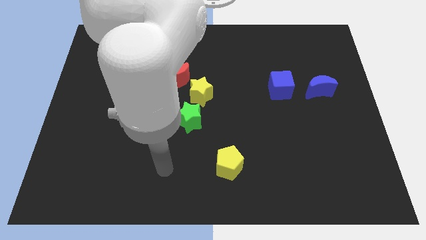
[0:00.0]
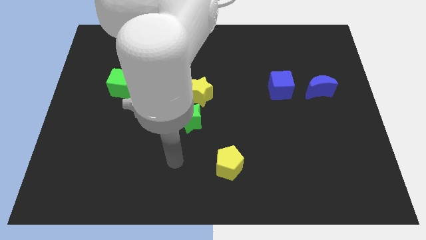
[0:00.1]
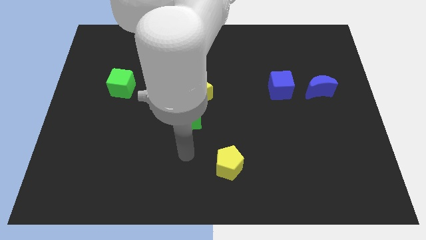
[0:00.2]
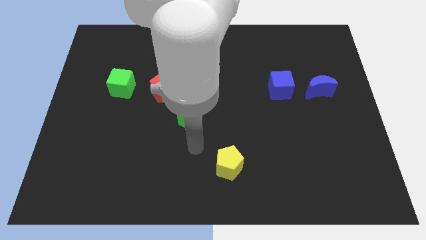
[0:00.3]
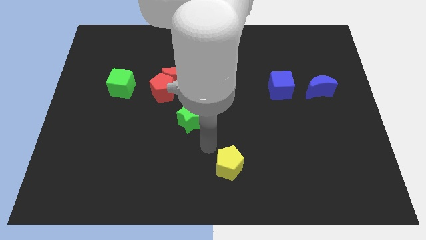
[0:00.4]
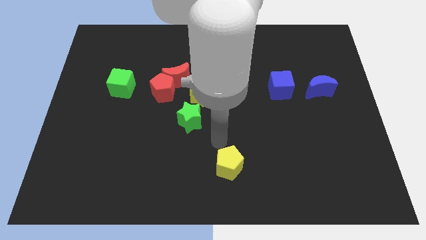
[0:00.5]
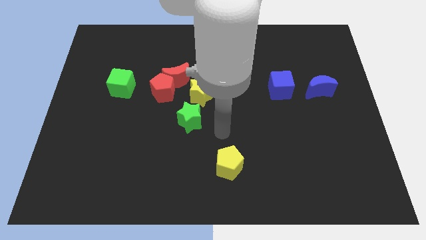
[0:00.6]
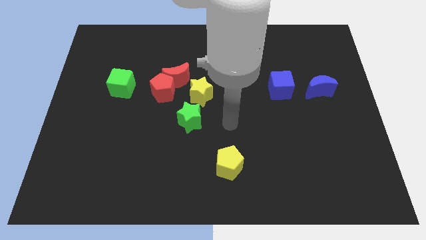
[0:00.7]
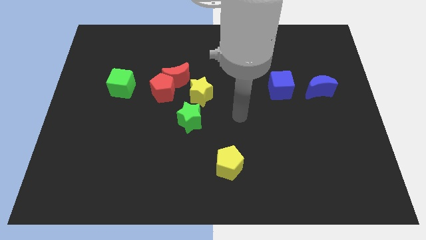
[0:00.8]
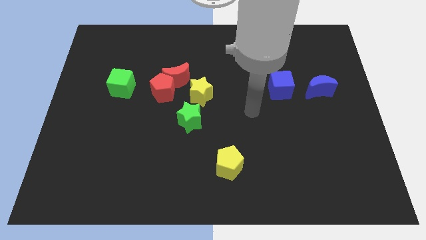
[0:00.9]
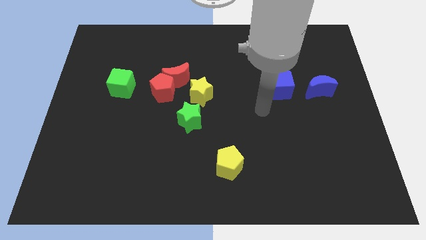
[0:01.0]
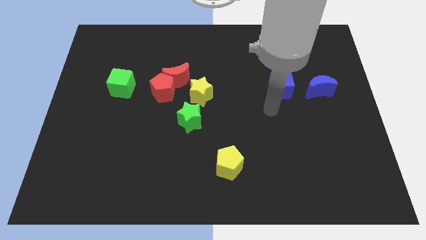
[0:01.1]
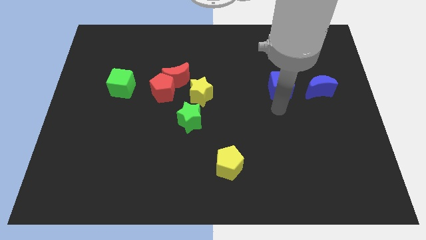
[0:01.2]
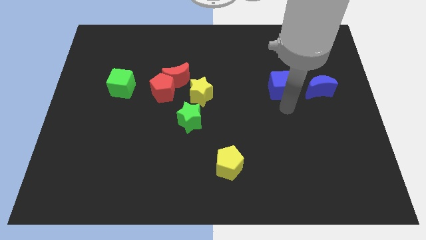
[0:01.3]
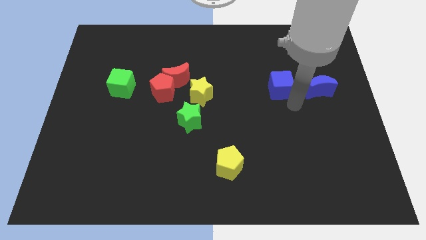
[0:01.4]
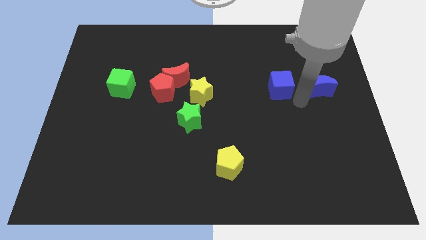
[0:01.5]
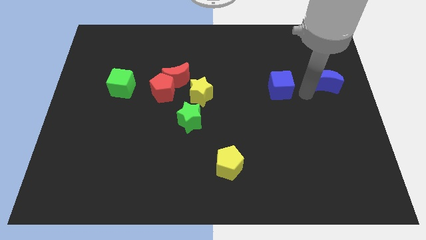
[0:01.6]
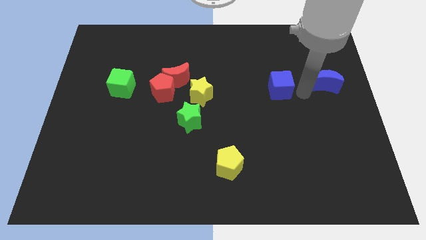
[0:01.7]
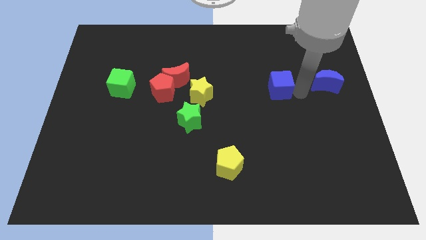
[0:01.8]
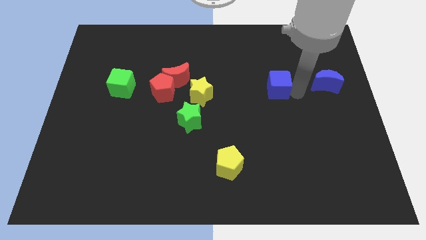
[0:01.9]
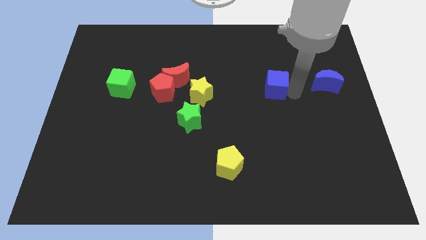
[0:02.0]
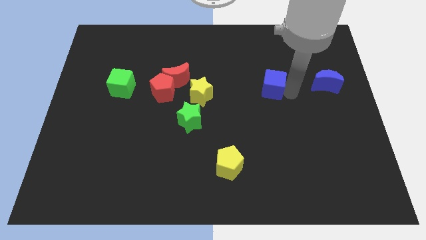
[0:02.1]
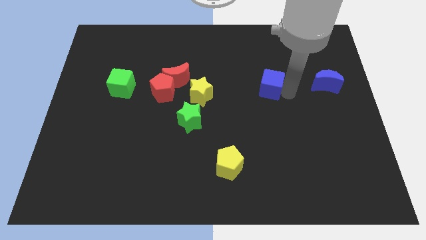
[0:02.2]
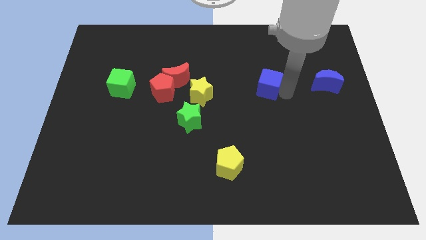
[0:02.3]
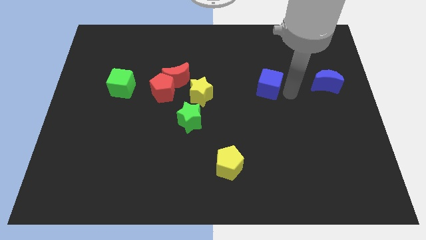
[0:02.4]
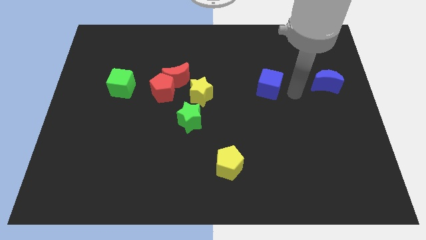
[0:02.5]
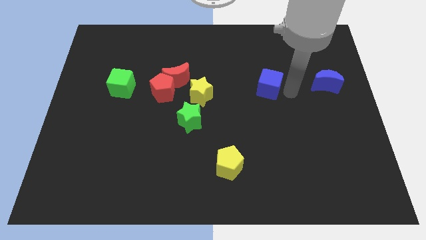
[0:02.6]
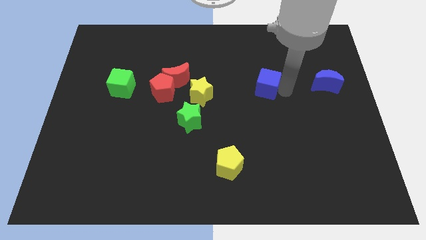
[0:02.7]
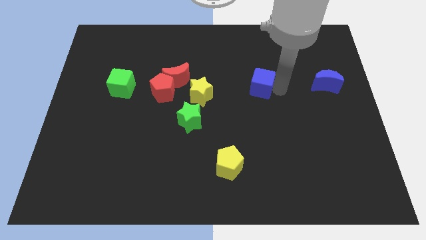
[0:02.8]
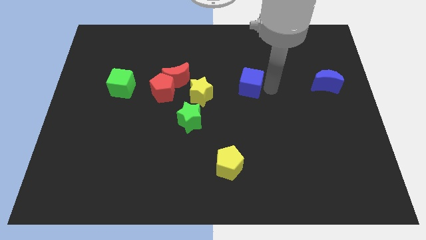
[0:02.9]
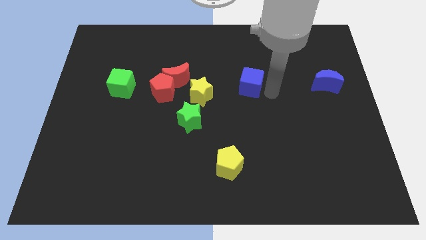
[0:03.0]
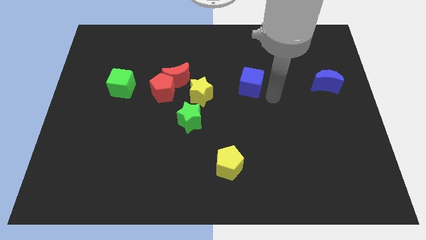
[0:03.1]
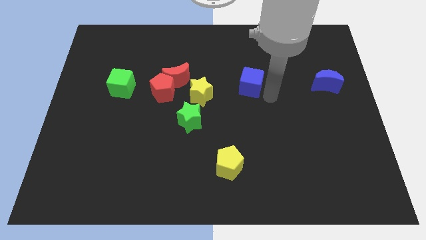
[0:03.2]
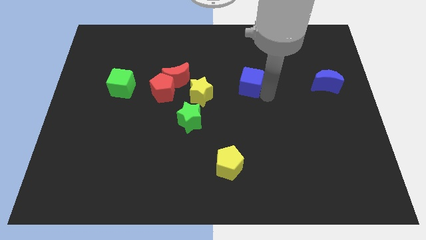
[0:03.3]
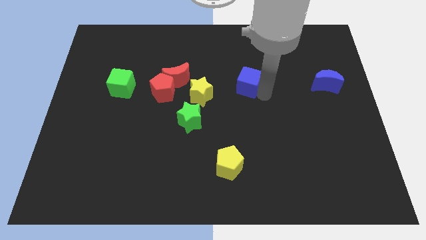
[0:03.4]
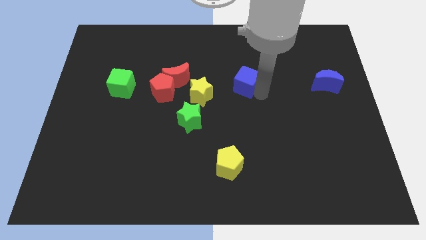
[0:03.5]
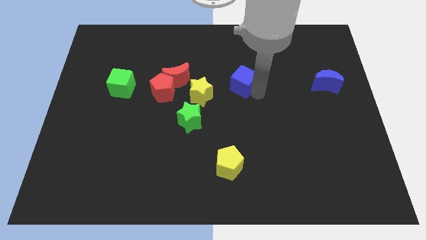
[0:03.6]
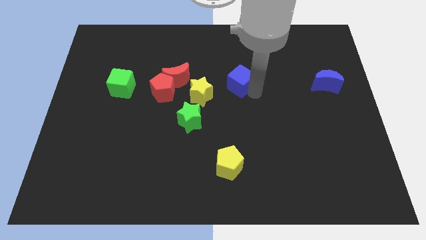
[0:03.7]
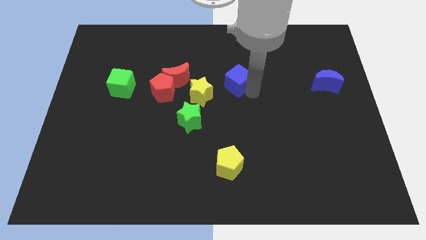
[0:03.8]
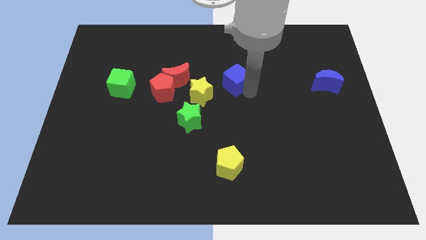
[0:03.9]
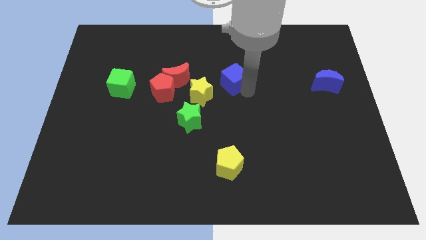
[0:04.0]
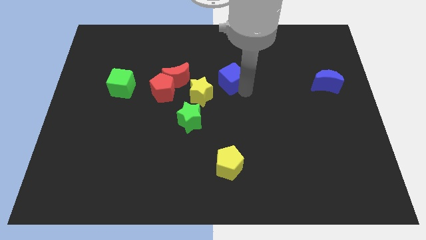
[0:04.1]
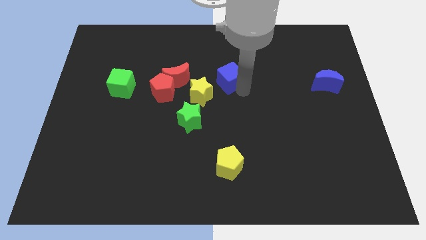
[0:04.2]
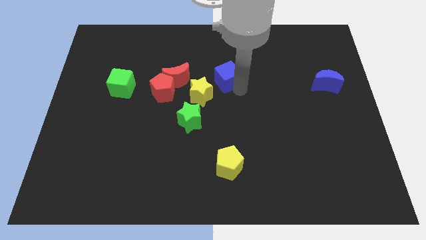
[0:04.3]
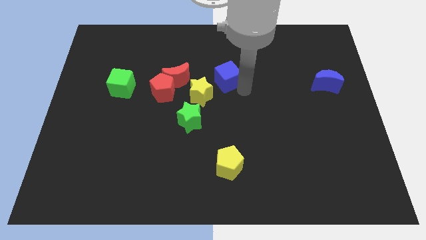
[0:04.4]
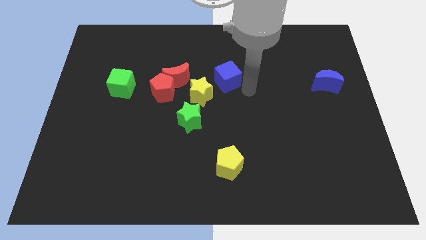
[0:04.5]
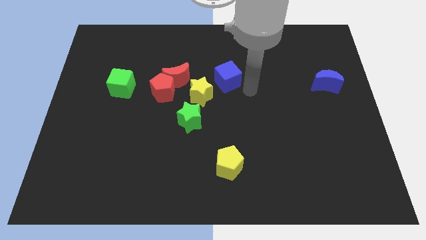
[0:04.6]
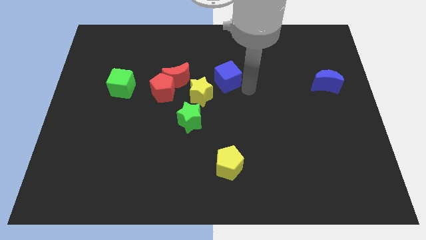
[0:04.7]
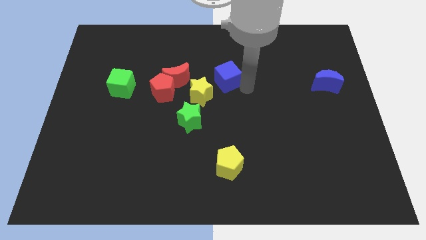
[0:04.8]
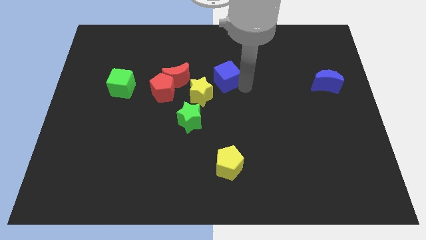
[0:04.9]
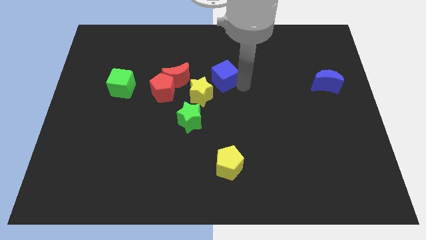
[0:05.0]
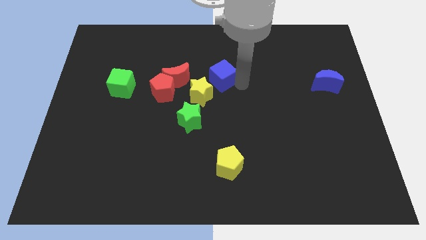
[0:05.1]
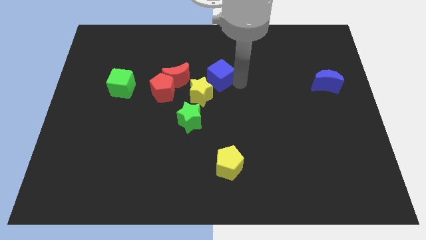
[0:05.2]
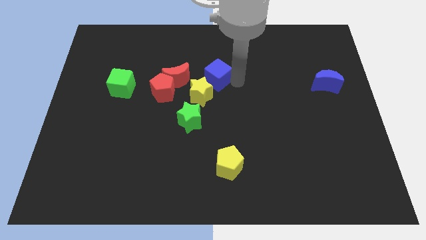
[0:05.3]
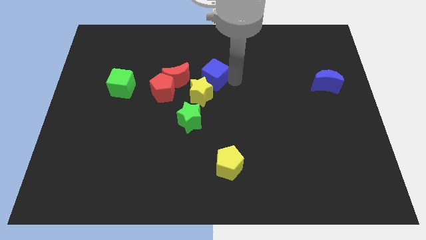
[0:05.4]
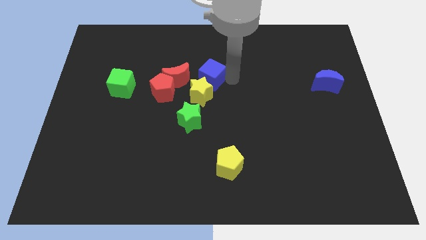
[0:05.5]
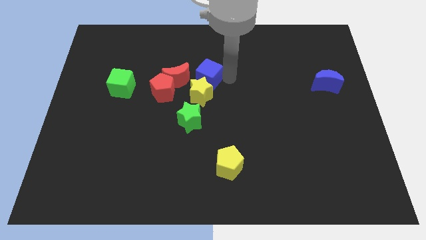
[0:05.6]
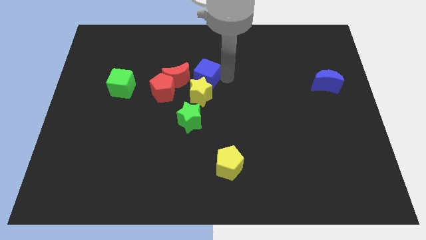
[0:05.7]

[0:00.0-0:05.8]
push the blue cube to the top right side of the red pentagon

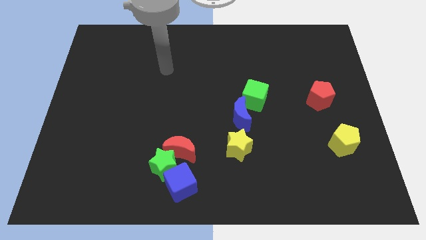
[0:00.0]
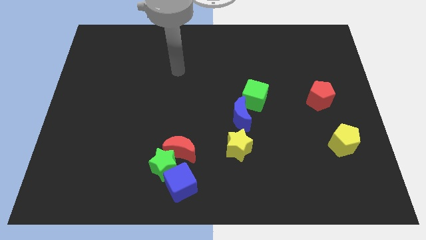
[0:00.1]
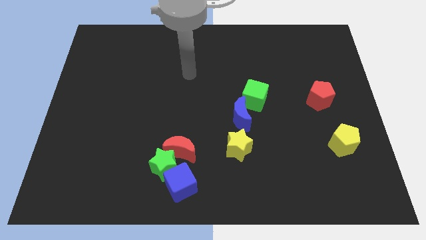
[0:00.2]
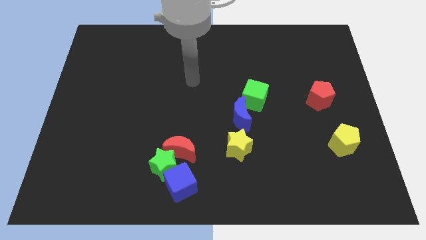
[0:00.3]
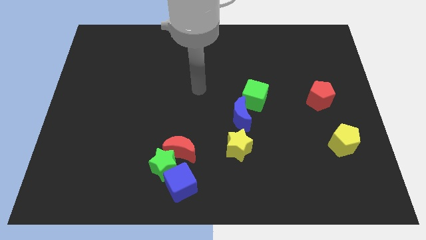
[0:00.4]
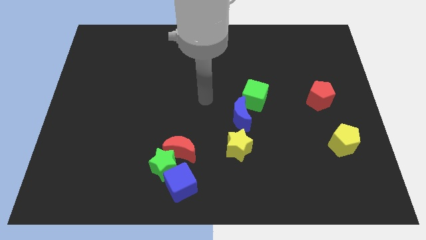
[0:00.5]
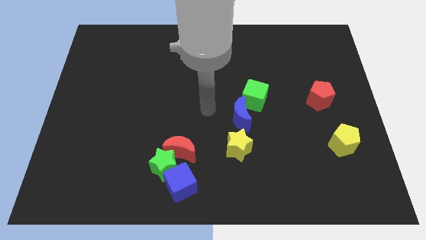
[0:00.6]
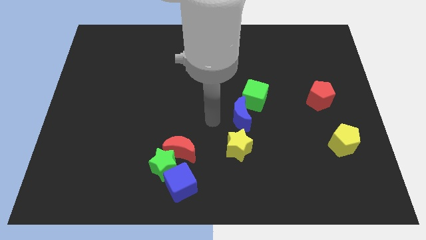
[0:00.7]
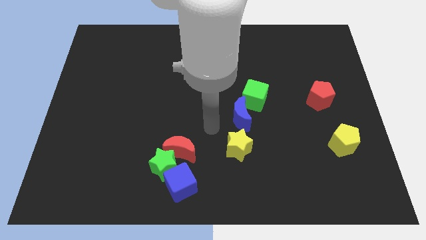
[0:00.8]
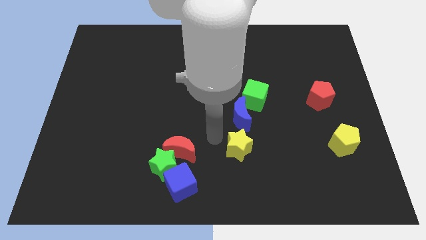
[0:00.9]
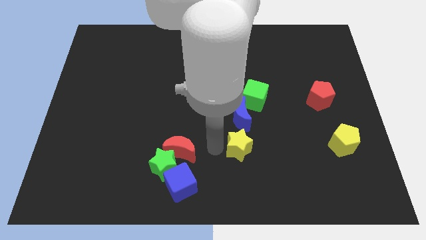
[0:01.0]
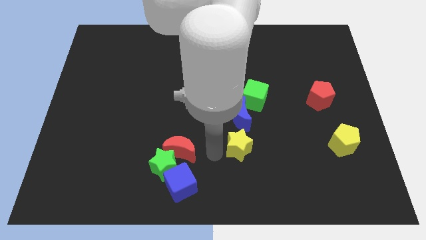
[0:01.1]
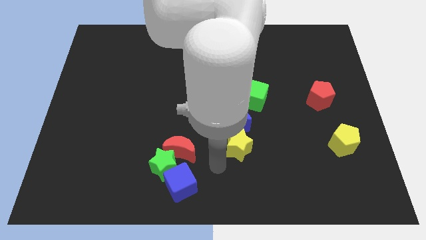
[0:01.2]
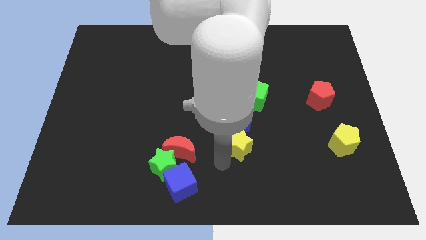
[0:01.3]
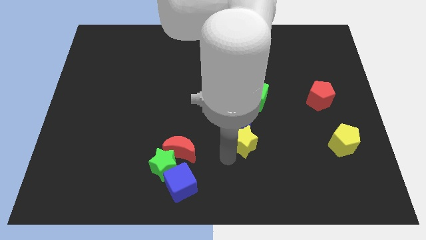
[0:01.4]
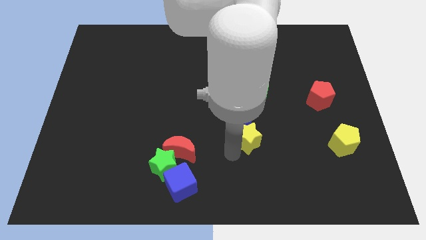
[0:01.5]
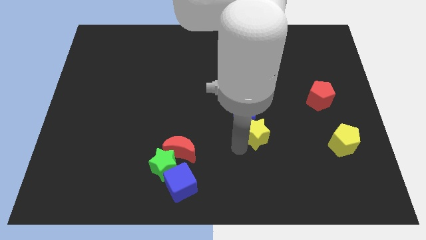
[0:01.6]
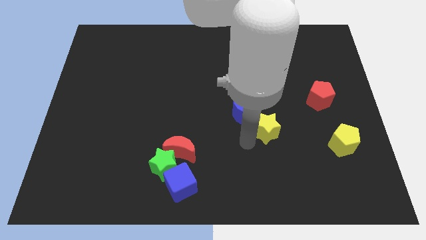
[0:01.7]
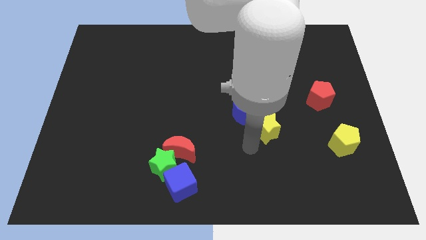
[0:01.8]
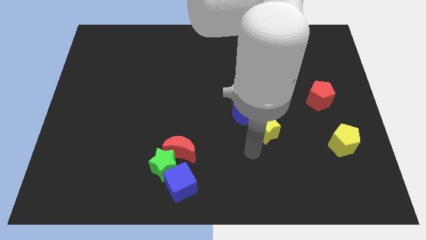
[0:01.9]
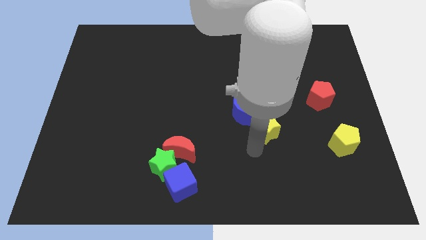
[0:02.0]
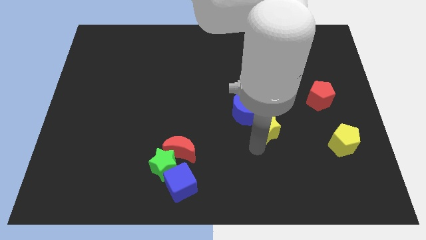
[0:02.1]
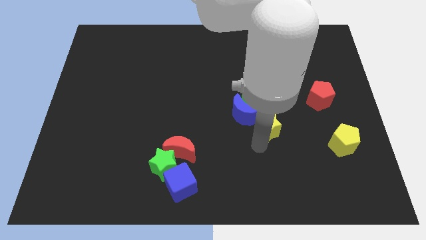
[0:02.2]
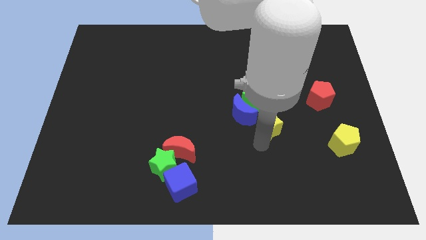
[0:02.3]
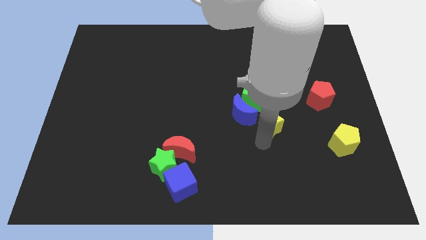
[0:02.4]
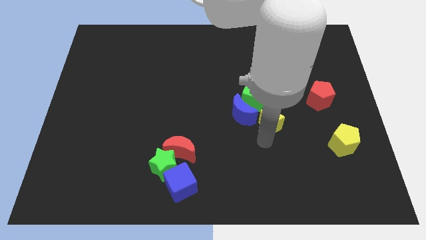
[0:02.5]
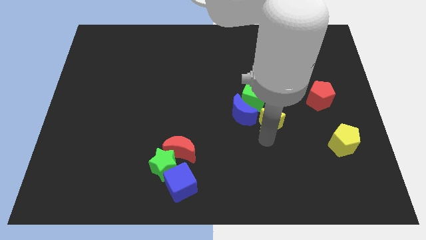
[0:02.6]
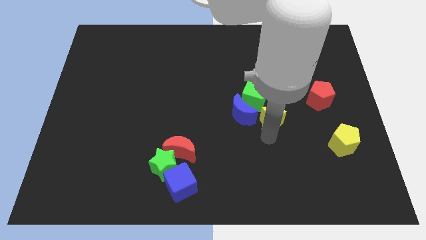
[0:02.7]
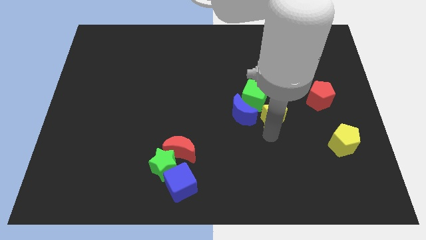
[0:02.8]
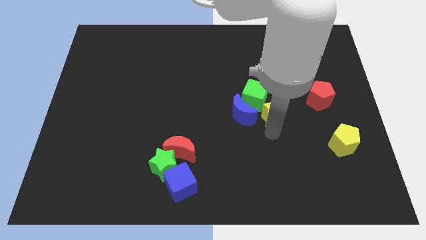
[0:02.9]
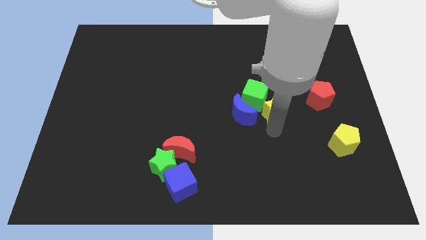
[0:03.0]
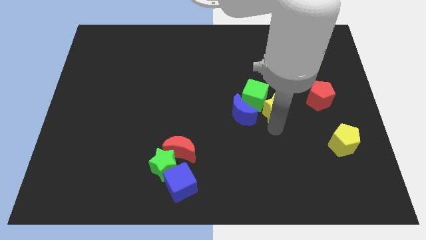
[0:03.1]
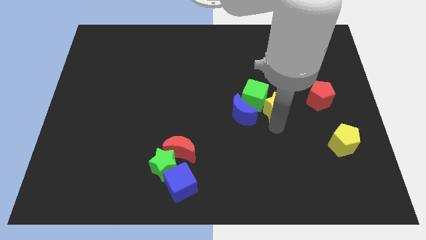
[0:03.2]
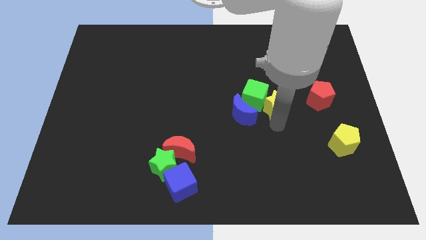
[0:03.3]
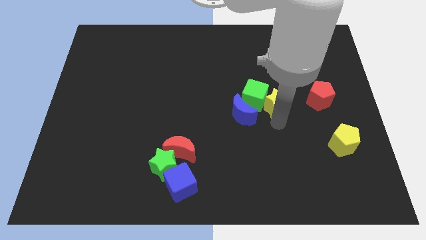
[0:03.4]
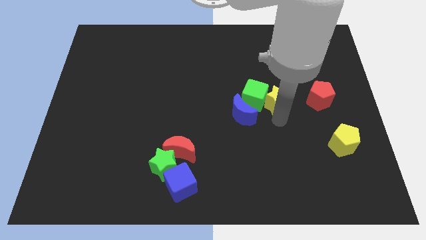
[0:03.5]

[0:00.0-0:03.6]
push the yellow star diagonally up and to the right of the green cube
